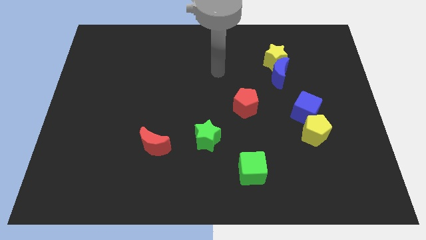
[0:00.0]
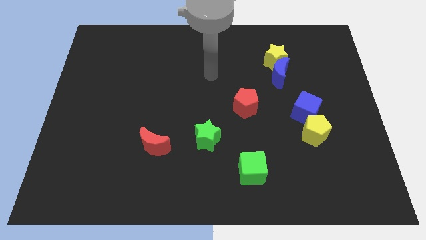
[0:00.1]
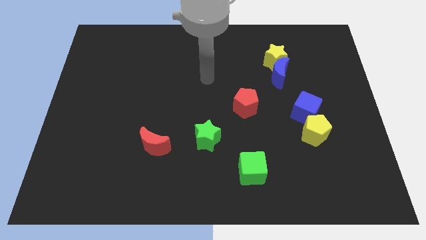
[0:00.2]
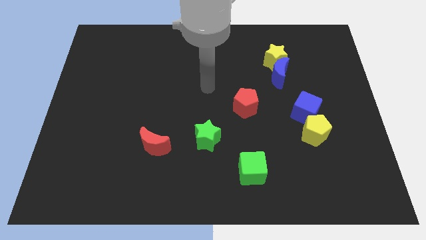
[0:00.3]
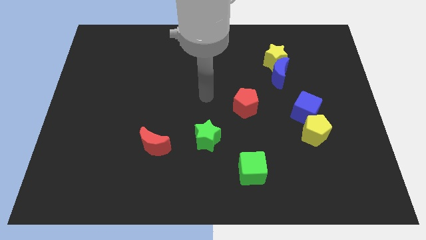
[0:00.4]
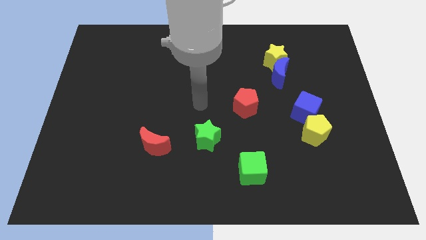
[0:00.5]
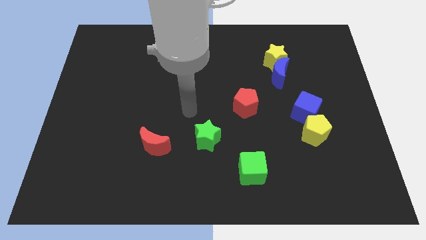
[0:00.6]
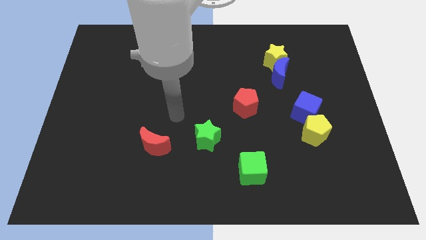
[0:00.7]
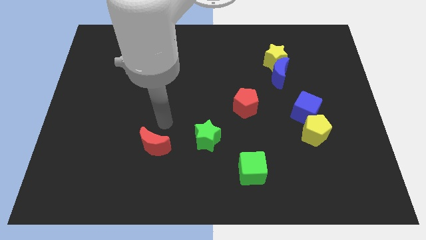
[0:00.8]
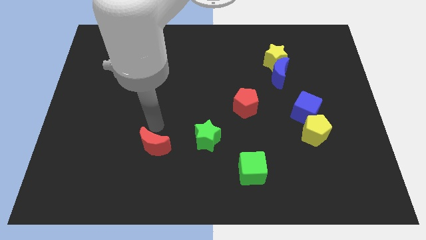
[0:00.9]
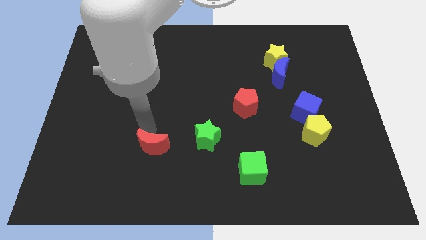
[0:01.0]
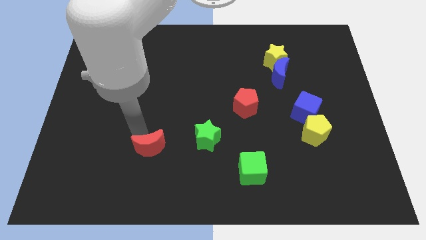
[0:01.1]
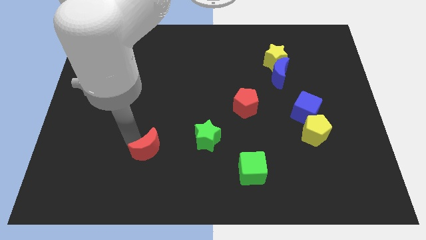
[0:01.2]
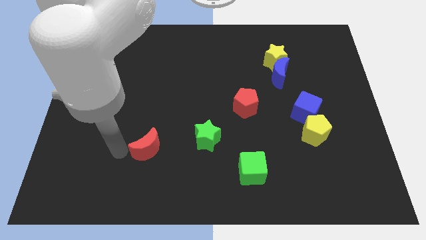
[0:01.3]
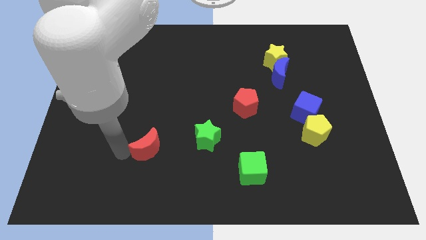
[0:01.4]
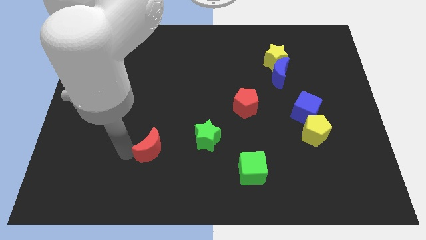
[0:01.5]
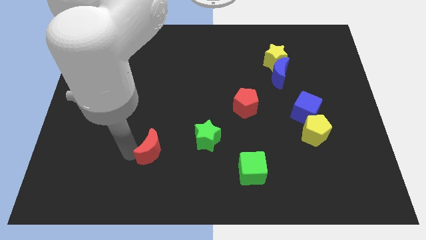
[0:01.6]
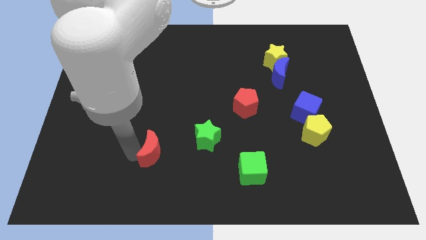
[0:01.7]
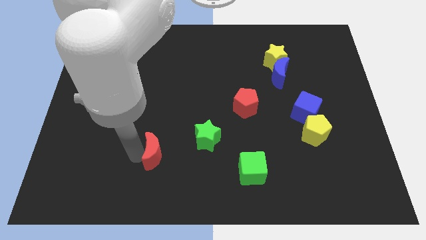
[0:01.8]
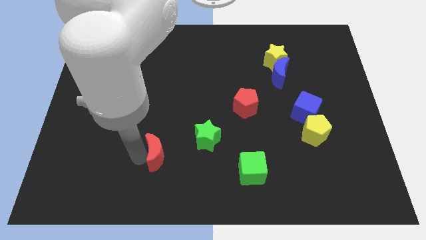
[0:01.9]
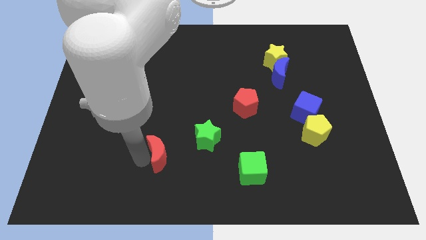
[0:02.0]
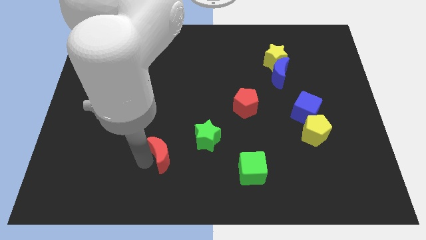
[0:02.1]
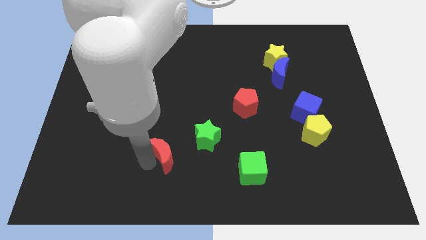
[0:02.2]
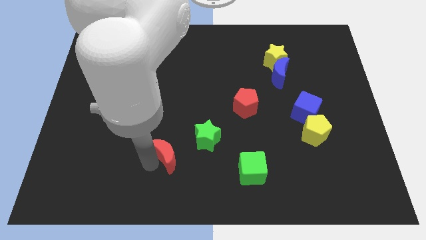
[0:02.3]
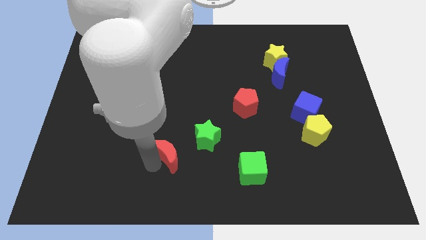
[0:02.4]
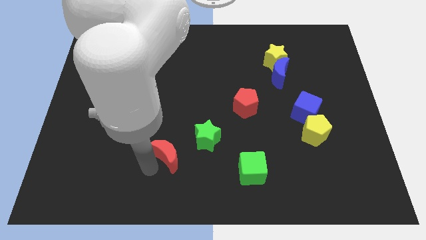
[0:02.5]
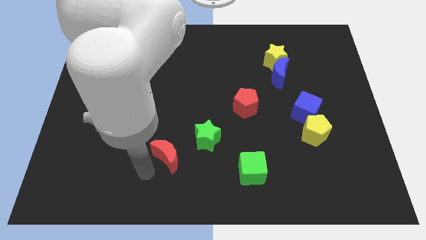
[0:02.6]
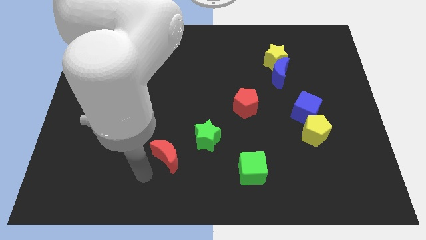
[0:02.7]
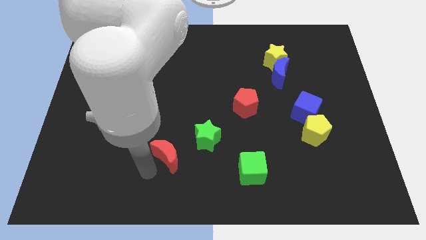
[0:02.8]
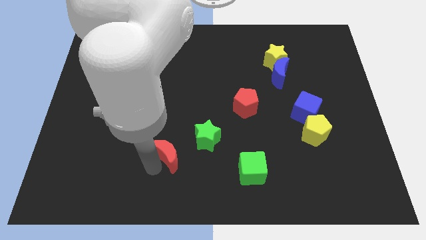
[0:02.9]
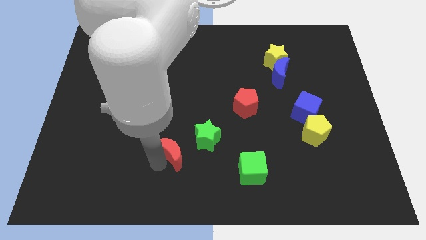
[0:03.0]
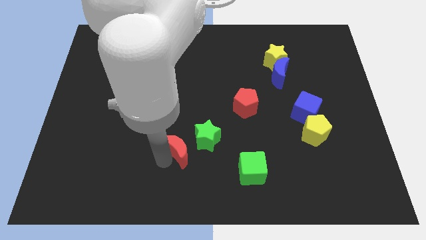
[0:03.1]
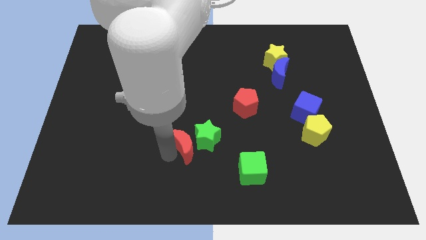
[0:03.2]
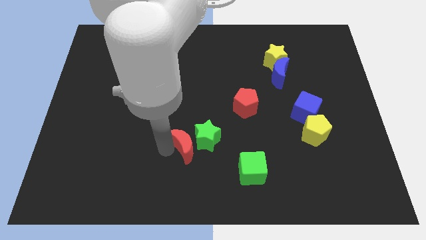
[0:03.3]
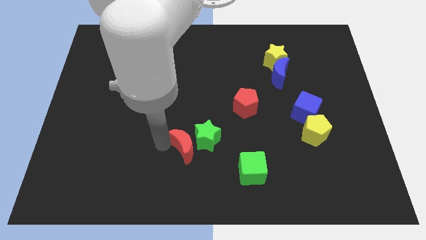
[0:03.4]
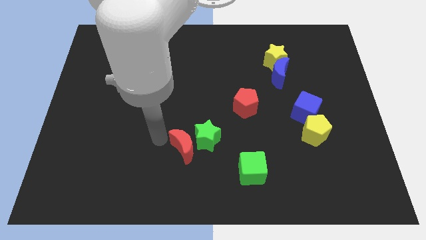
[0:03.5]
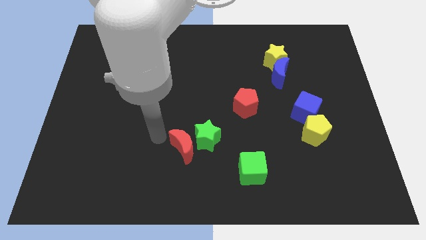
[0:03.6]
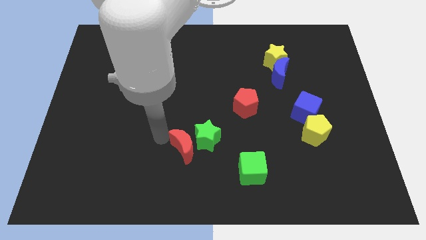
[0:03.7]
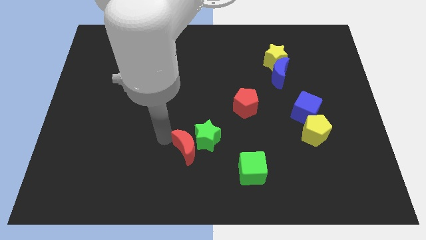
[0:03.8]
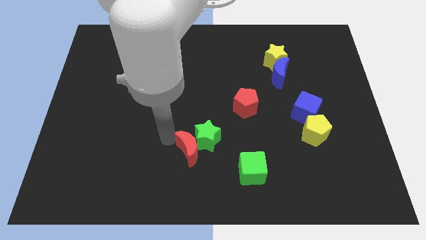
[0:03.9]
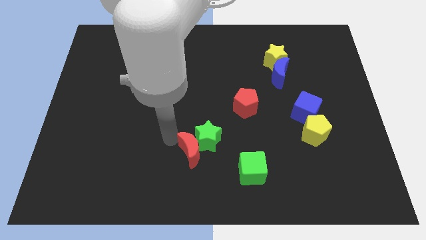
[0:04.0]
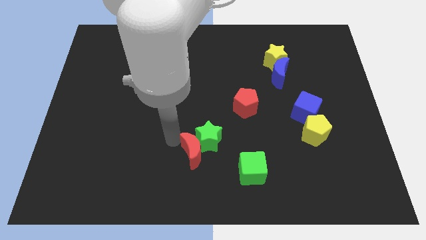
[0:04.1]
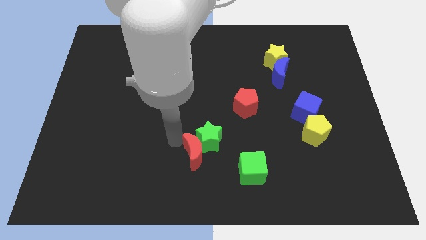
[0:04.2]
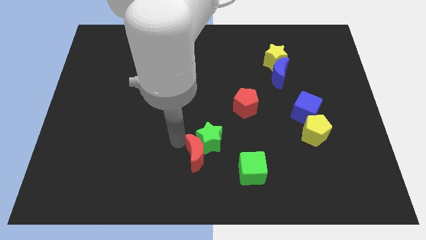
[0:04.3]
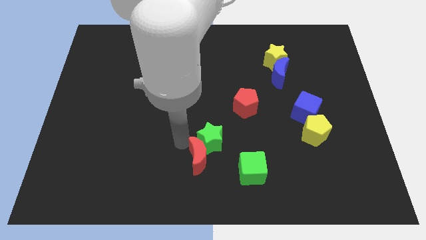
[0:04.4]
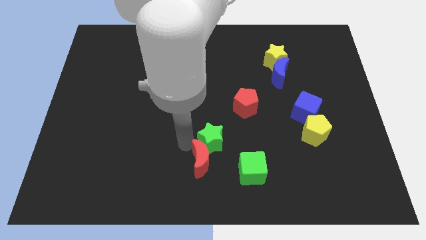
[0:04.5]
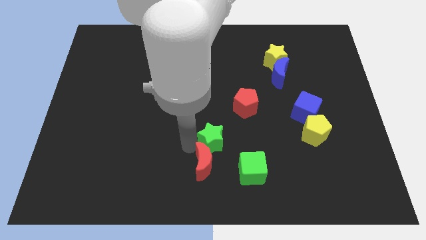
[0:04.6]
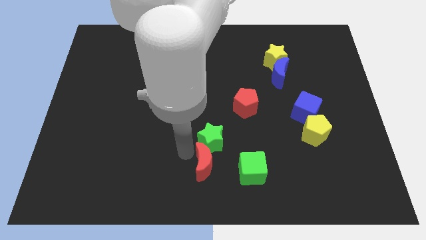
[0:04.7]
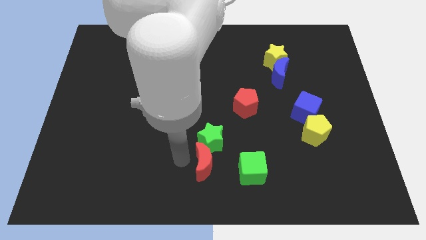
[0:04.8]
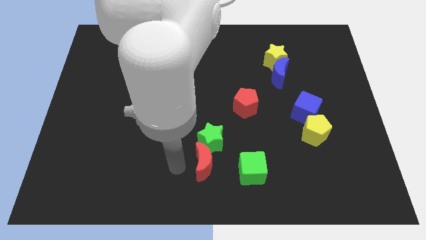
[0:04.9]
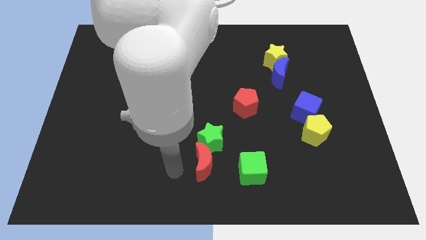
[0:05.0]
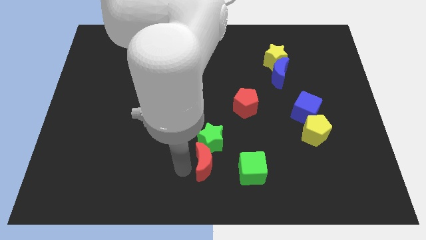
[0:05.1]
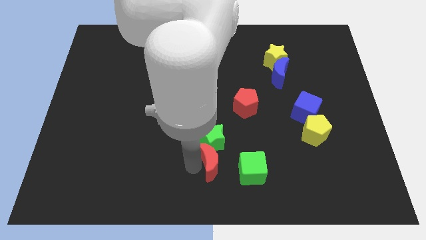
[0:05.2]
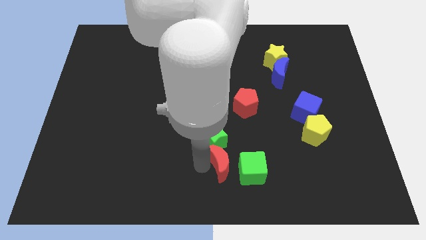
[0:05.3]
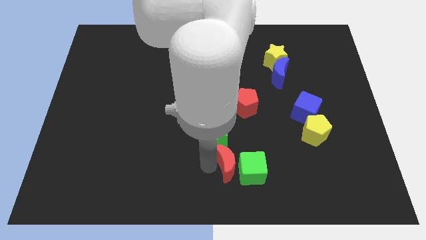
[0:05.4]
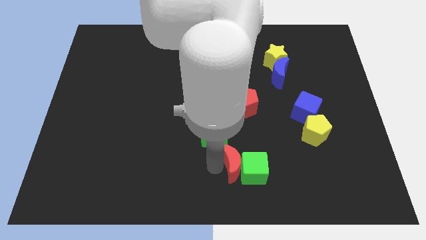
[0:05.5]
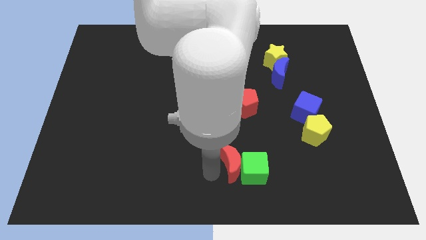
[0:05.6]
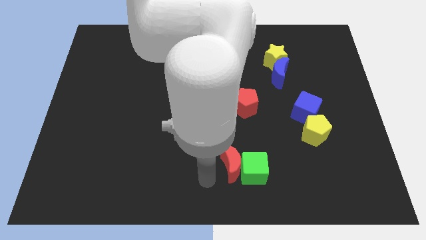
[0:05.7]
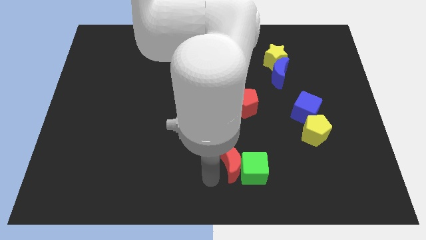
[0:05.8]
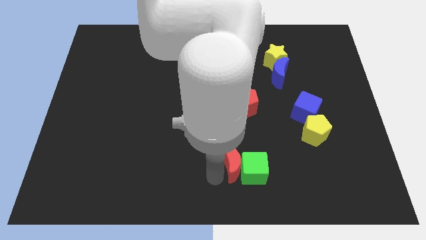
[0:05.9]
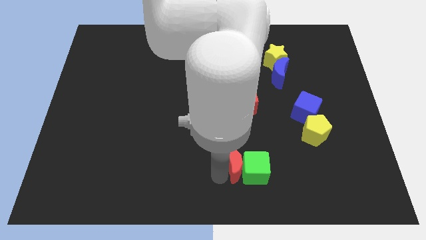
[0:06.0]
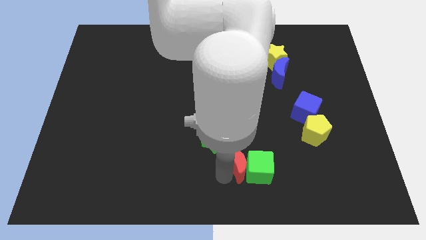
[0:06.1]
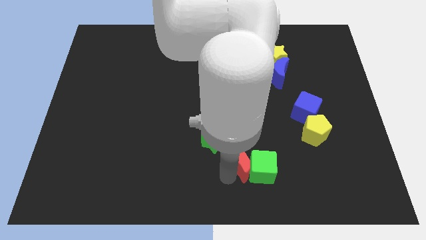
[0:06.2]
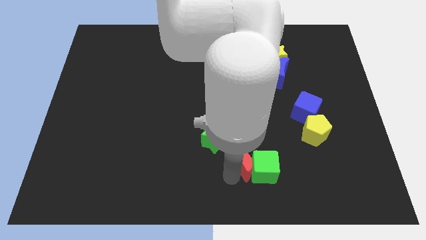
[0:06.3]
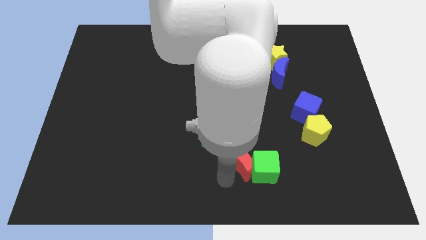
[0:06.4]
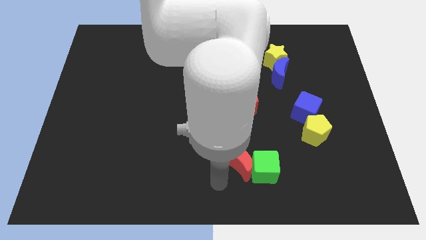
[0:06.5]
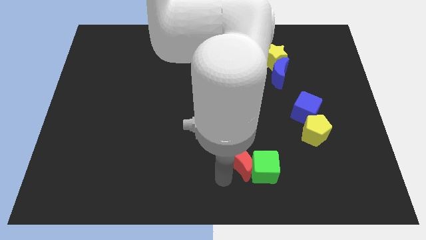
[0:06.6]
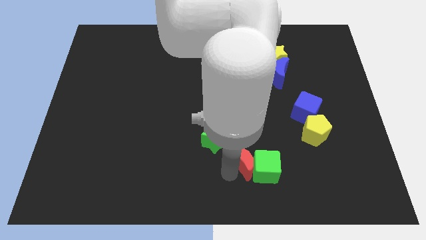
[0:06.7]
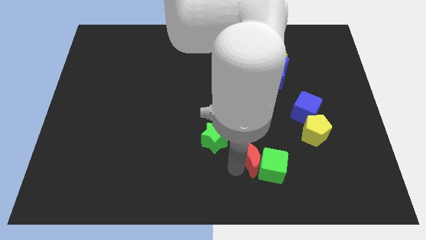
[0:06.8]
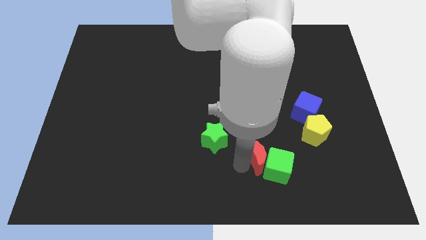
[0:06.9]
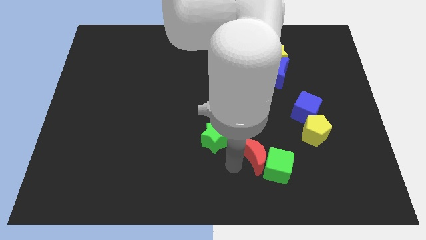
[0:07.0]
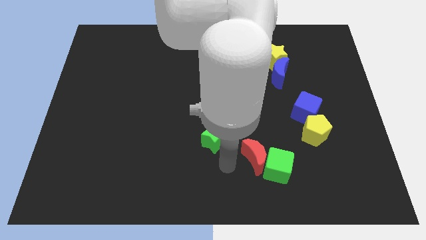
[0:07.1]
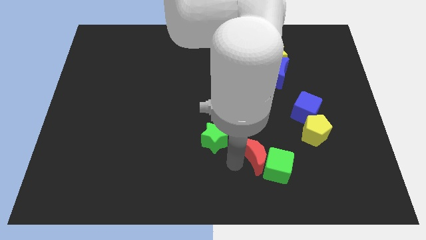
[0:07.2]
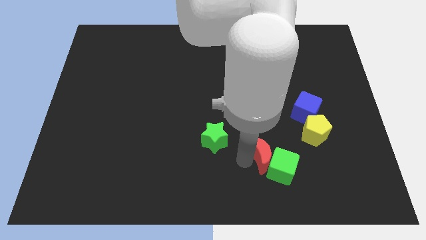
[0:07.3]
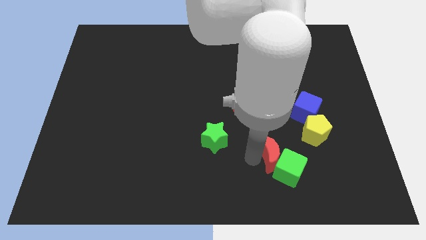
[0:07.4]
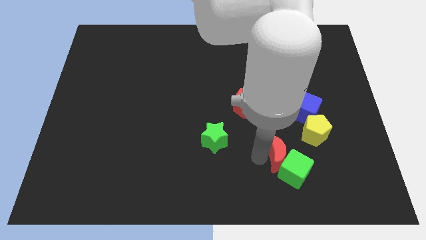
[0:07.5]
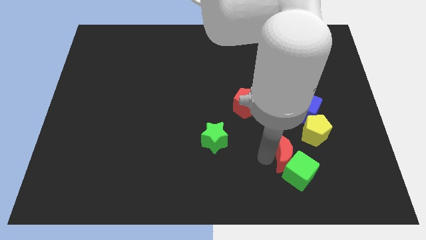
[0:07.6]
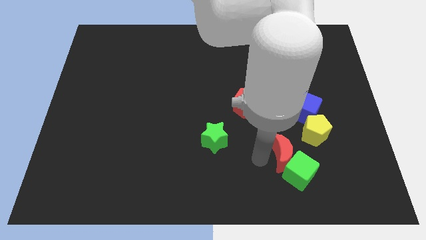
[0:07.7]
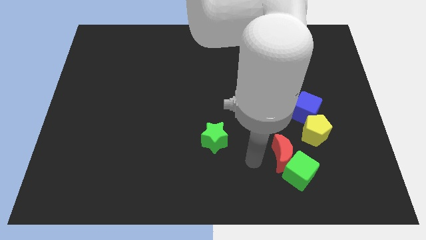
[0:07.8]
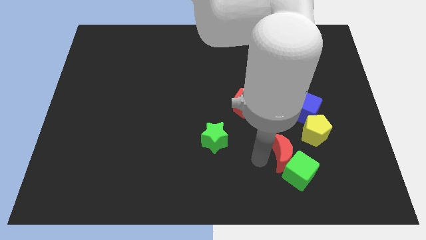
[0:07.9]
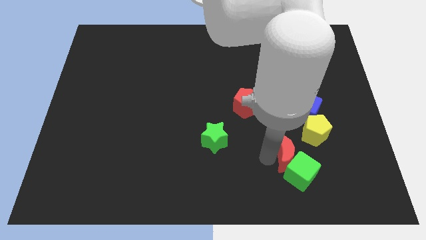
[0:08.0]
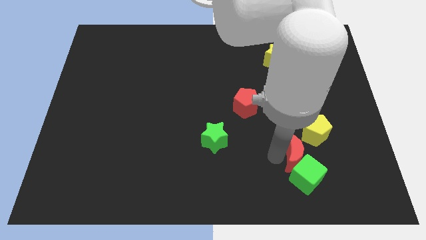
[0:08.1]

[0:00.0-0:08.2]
slide the red moon below the blue cube
